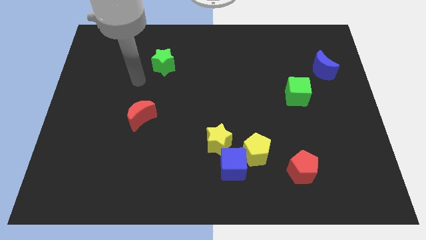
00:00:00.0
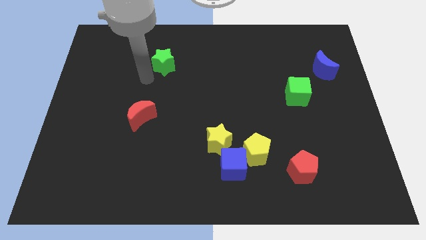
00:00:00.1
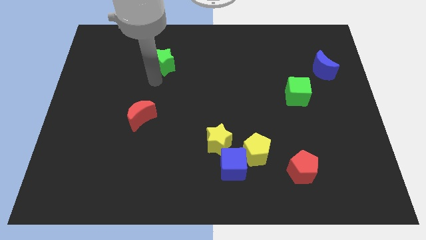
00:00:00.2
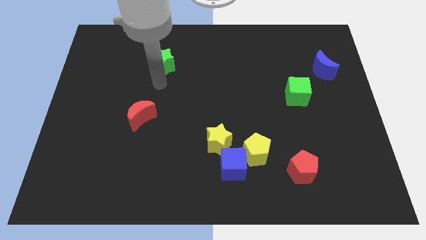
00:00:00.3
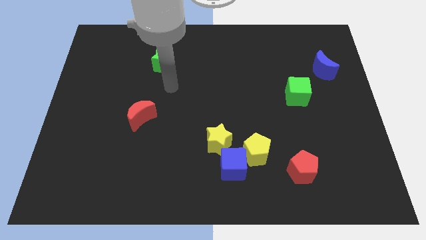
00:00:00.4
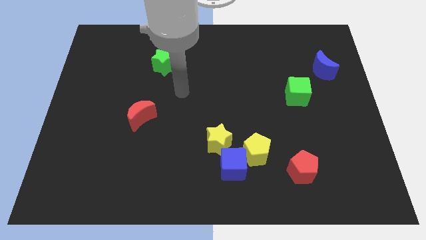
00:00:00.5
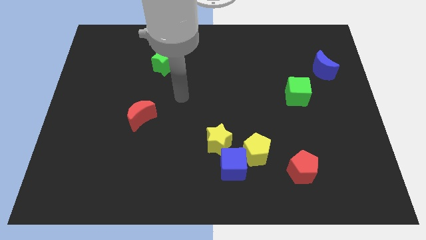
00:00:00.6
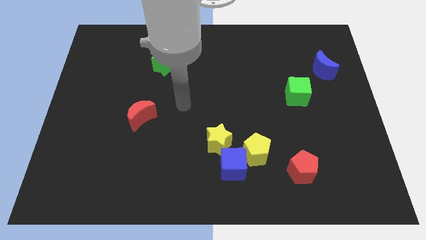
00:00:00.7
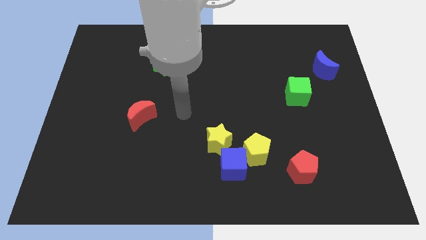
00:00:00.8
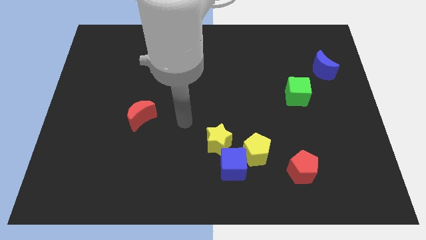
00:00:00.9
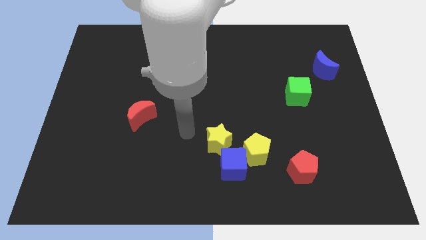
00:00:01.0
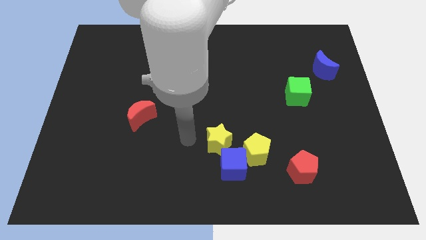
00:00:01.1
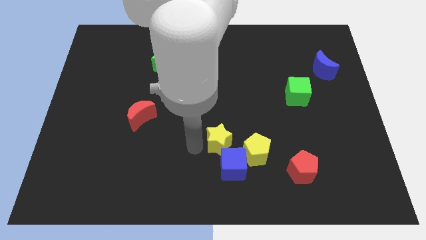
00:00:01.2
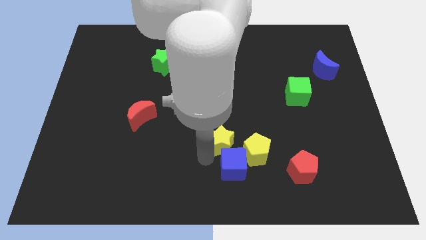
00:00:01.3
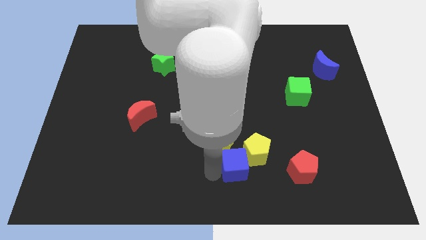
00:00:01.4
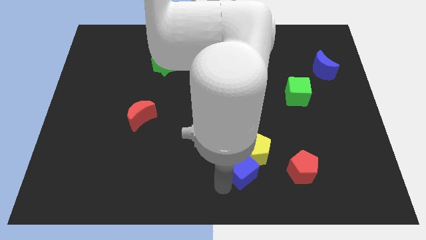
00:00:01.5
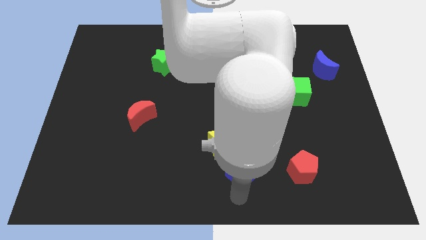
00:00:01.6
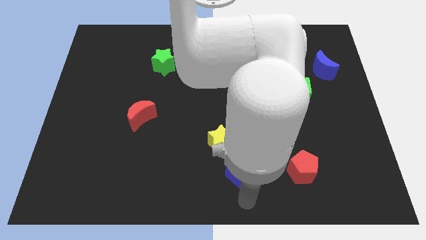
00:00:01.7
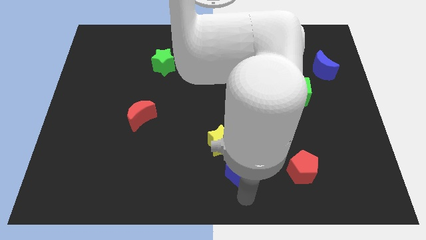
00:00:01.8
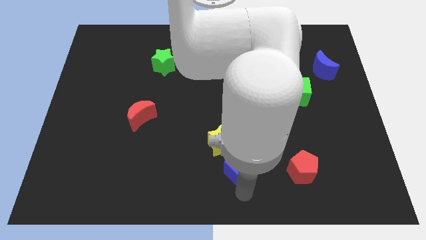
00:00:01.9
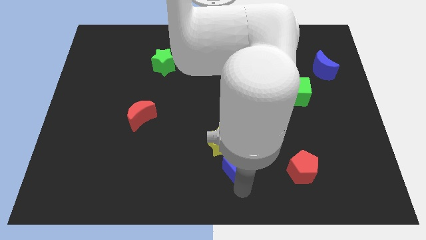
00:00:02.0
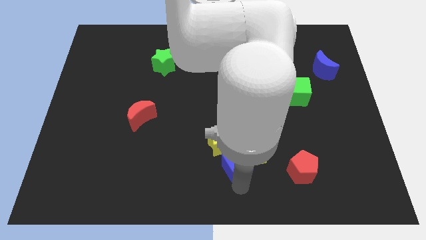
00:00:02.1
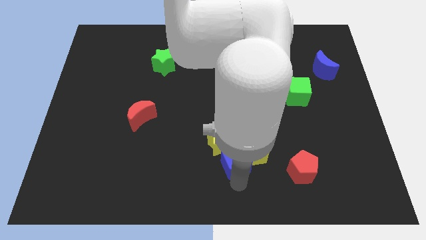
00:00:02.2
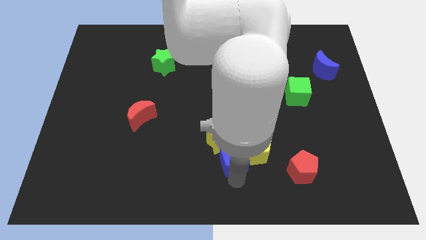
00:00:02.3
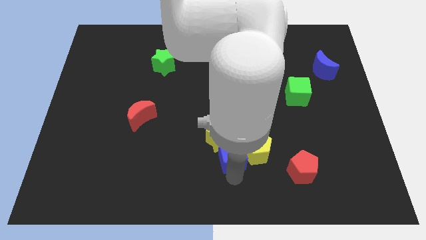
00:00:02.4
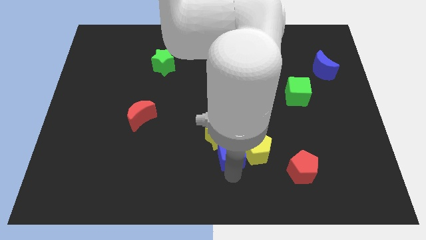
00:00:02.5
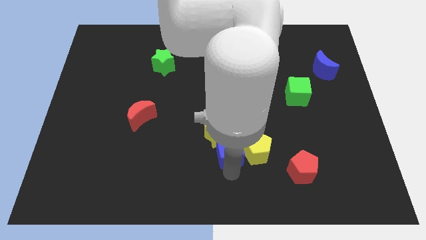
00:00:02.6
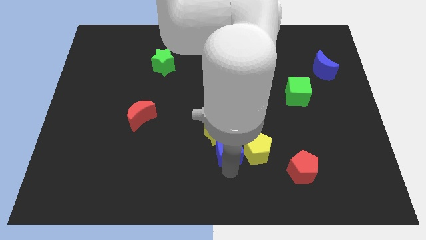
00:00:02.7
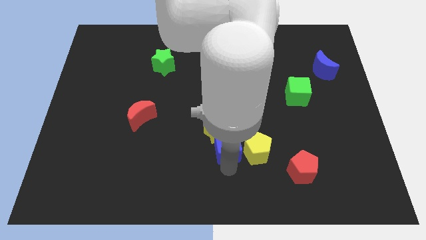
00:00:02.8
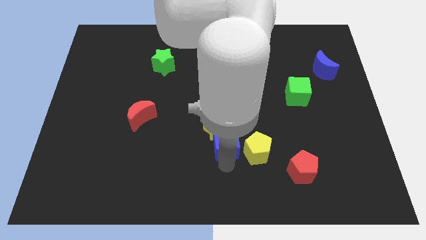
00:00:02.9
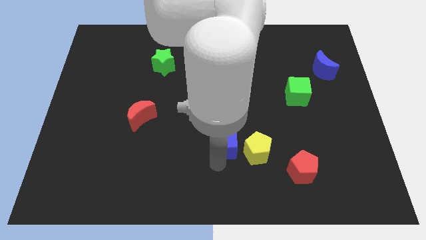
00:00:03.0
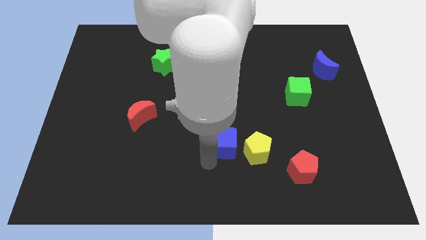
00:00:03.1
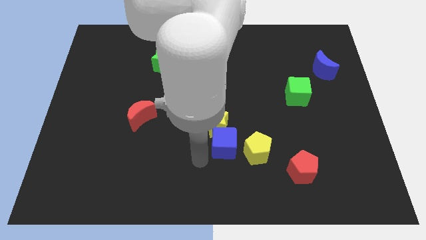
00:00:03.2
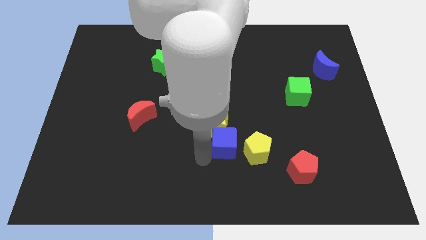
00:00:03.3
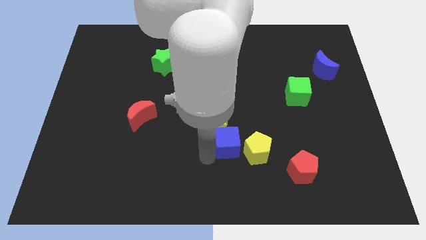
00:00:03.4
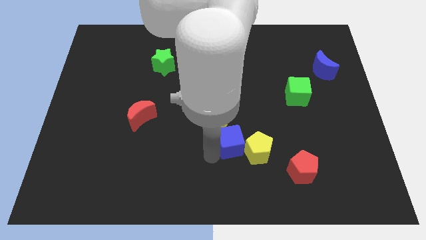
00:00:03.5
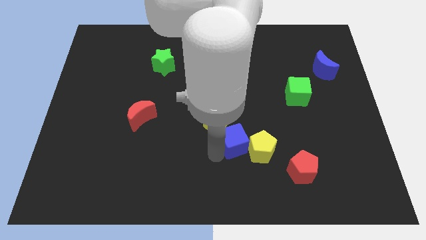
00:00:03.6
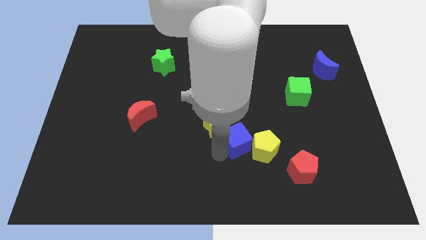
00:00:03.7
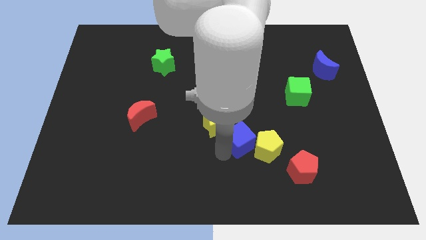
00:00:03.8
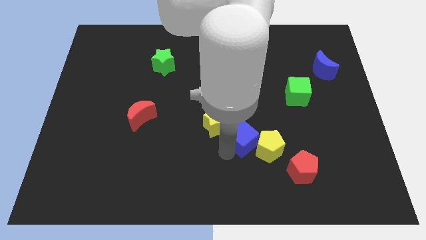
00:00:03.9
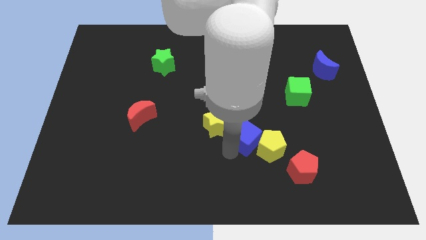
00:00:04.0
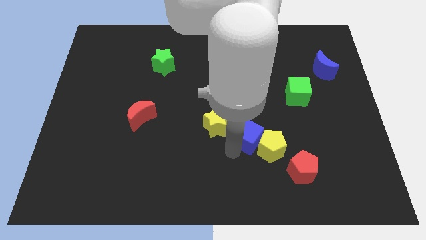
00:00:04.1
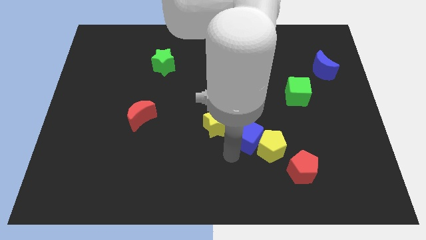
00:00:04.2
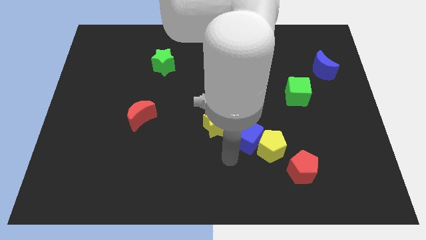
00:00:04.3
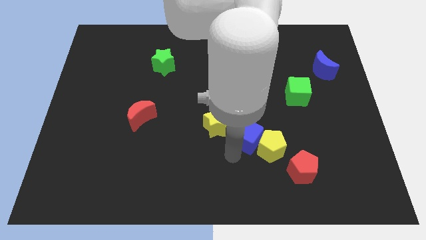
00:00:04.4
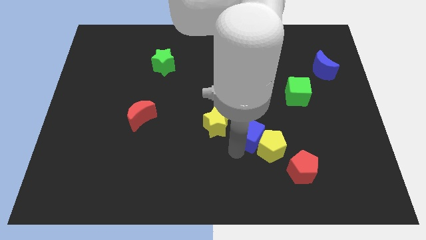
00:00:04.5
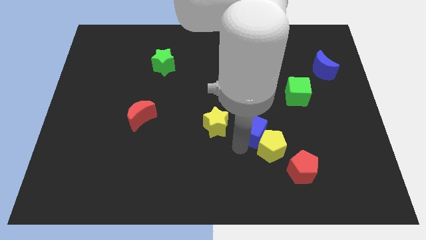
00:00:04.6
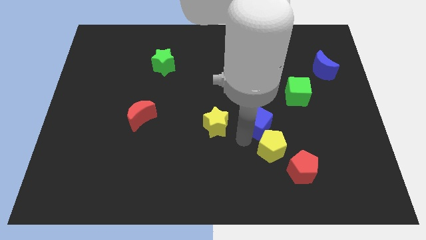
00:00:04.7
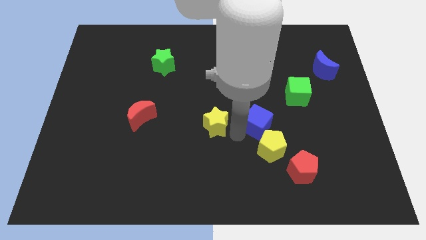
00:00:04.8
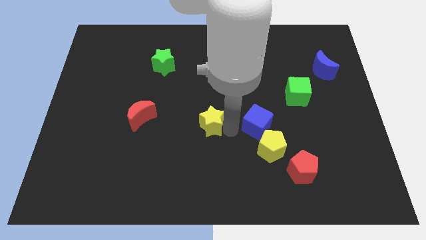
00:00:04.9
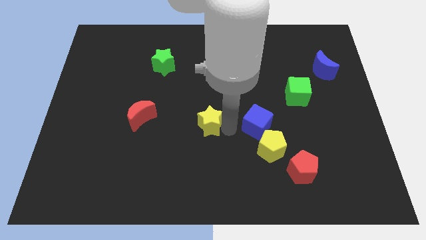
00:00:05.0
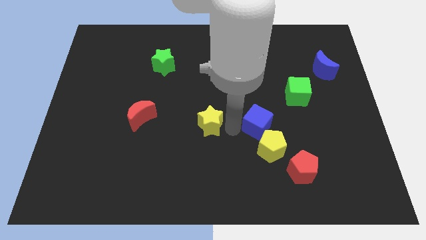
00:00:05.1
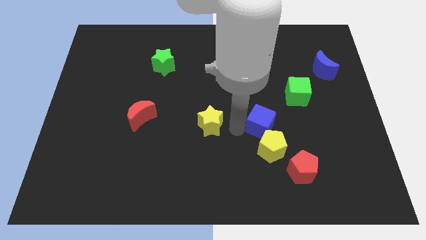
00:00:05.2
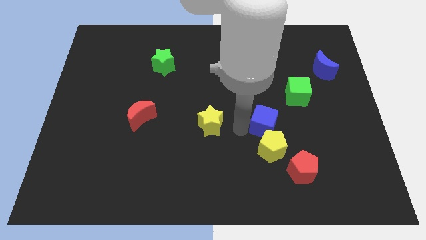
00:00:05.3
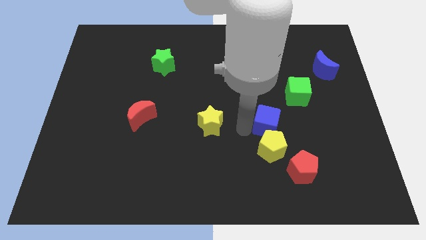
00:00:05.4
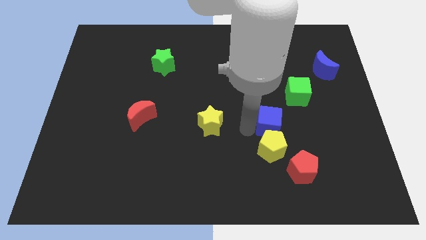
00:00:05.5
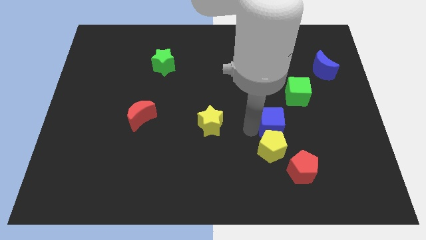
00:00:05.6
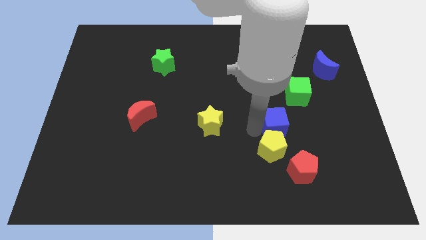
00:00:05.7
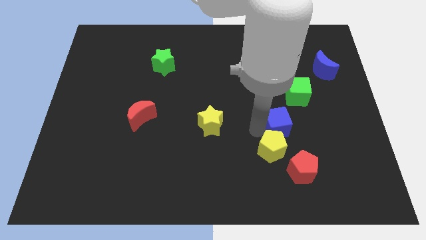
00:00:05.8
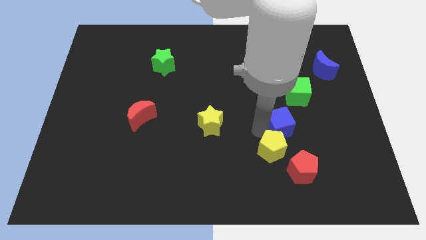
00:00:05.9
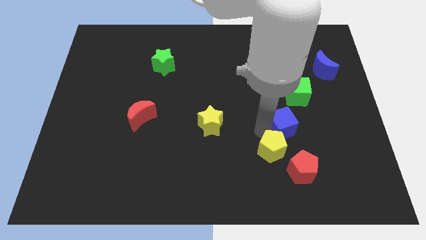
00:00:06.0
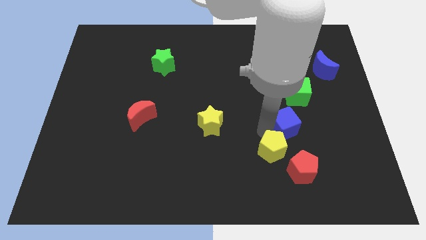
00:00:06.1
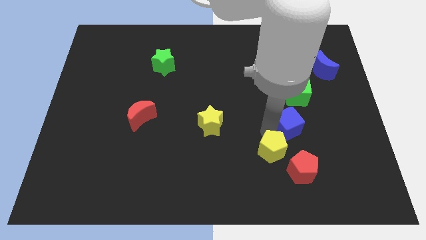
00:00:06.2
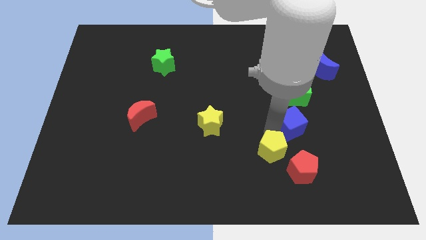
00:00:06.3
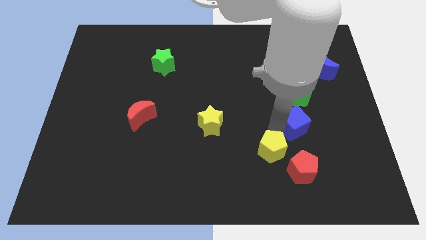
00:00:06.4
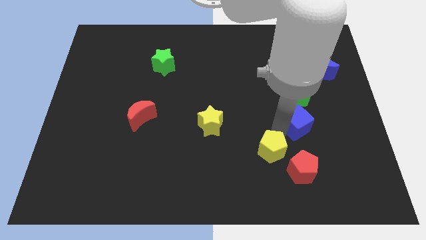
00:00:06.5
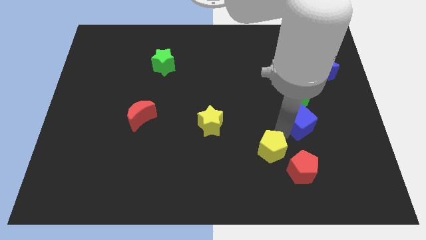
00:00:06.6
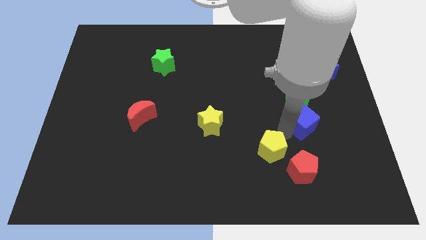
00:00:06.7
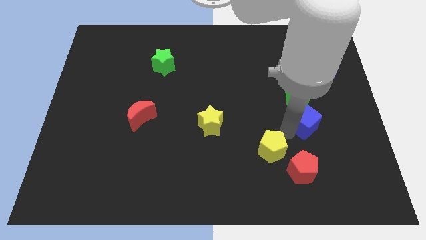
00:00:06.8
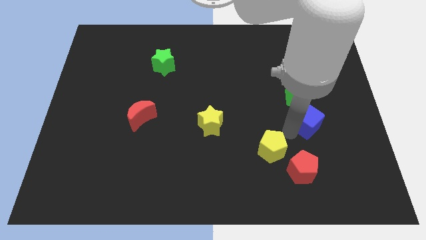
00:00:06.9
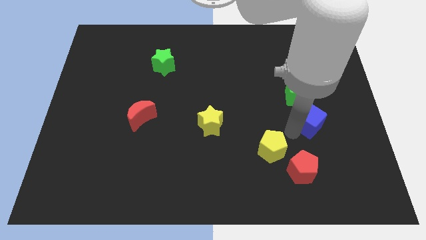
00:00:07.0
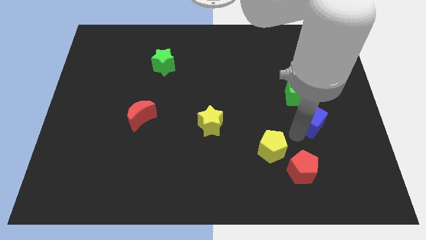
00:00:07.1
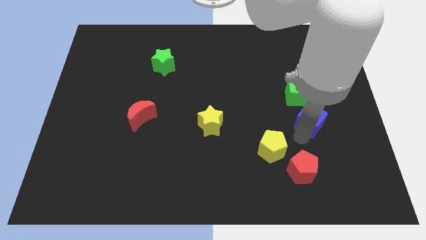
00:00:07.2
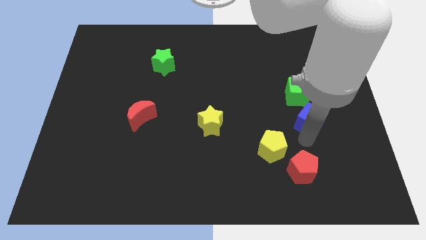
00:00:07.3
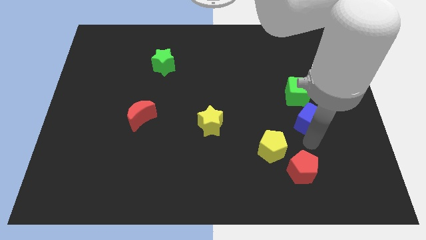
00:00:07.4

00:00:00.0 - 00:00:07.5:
push the blue cube up and right

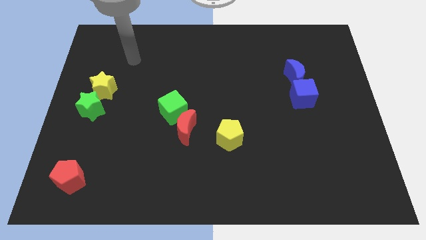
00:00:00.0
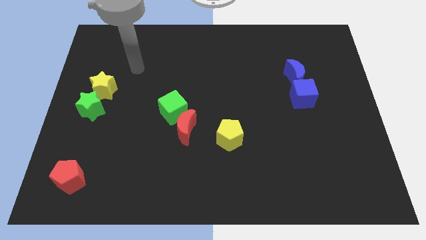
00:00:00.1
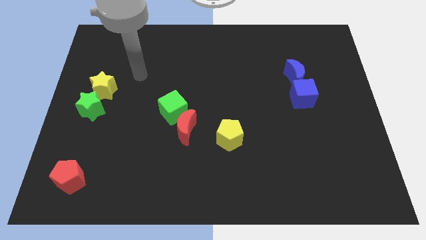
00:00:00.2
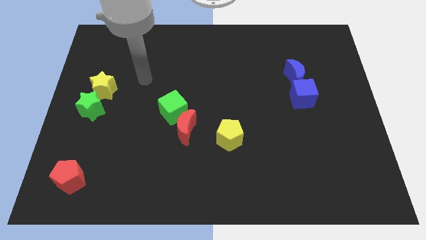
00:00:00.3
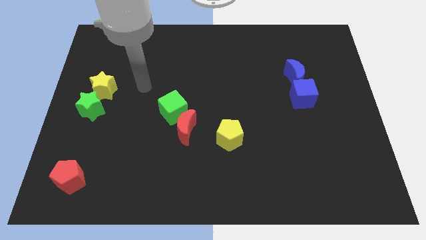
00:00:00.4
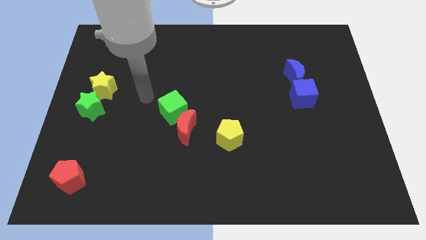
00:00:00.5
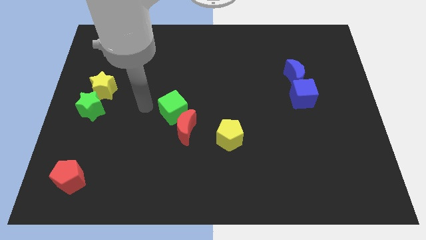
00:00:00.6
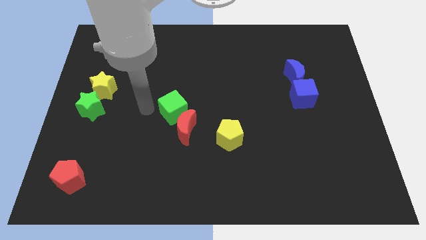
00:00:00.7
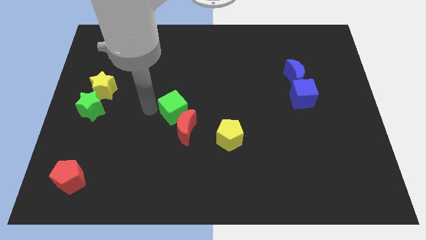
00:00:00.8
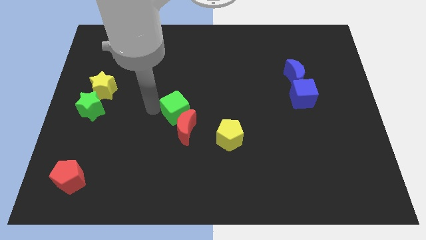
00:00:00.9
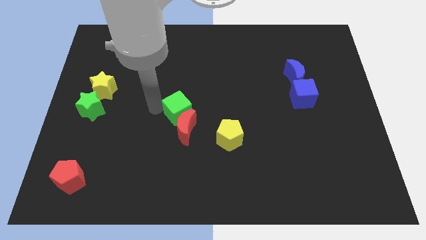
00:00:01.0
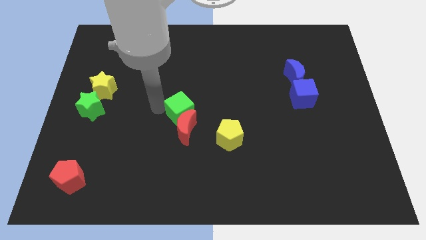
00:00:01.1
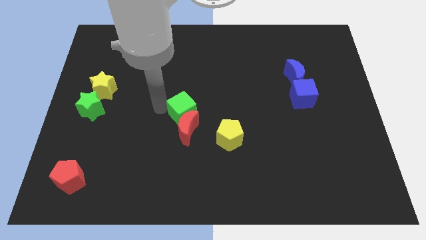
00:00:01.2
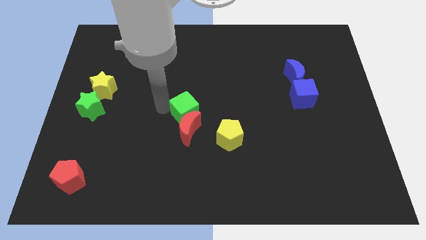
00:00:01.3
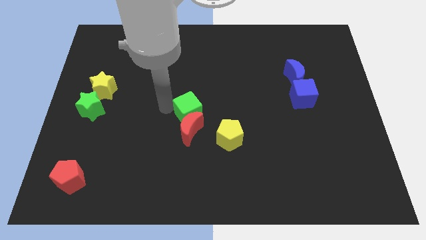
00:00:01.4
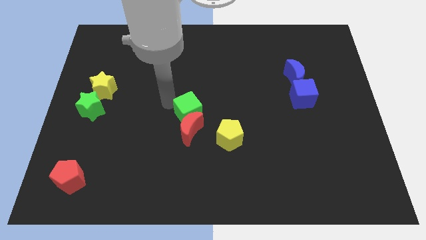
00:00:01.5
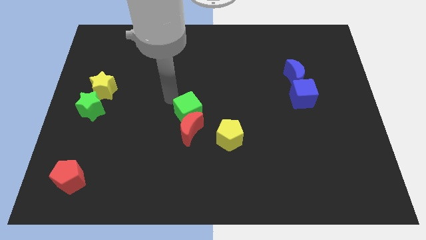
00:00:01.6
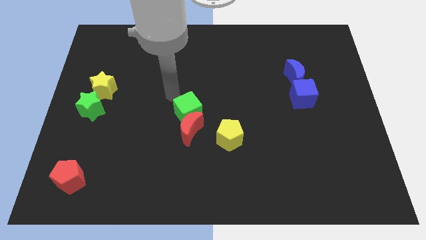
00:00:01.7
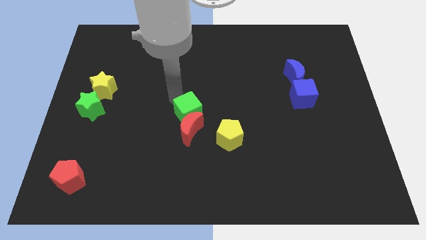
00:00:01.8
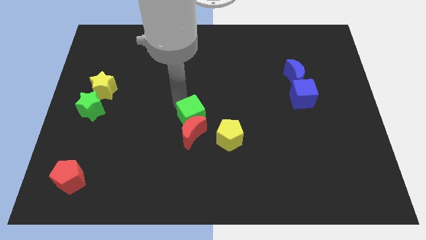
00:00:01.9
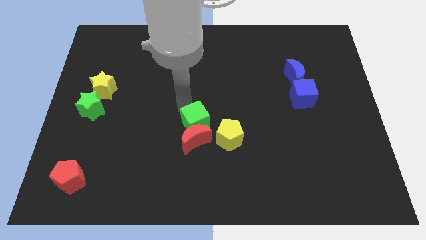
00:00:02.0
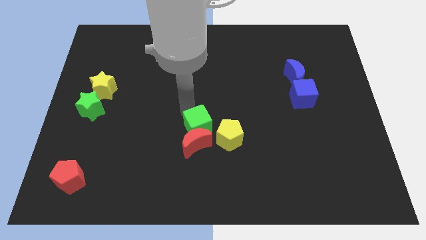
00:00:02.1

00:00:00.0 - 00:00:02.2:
push the green cube somewhat downwards and to the right
